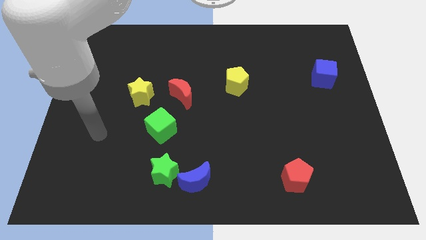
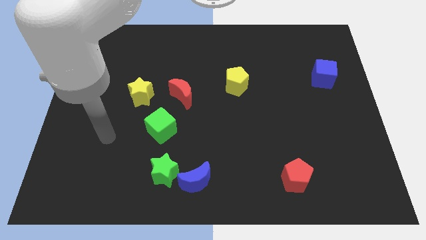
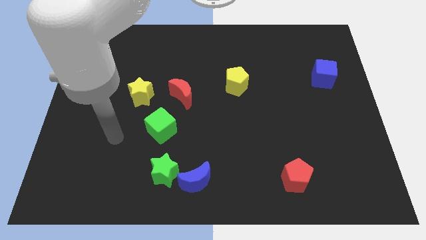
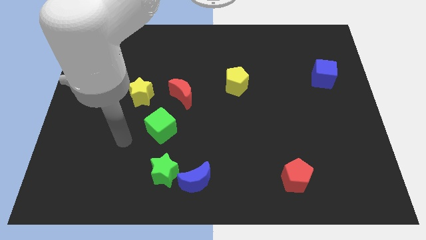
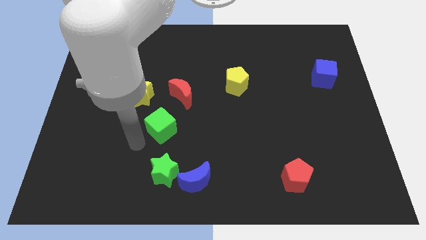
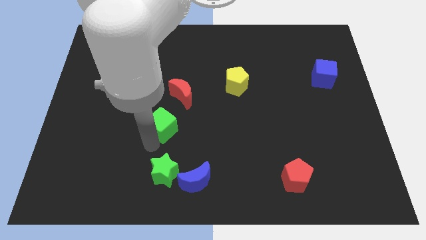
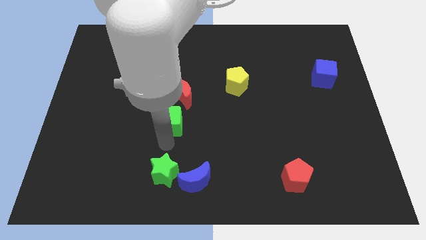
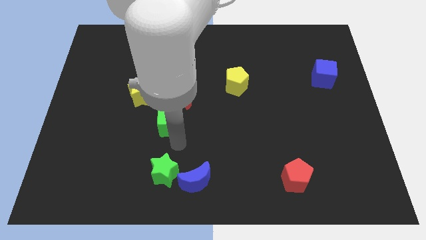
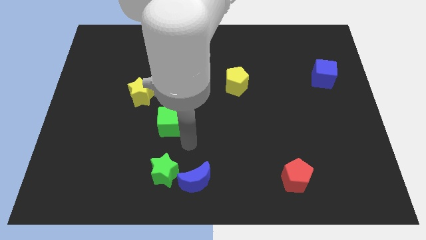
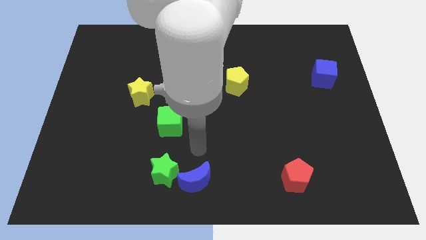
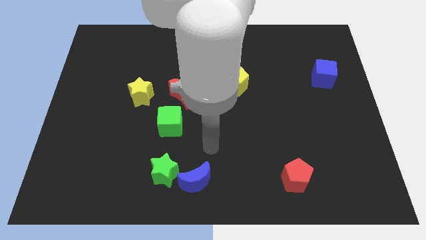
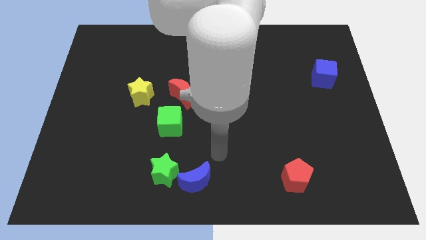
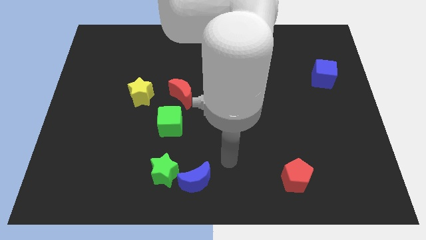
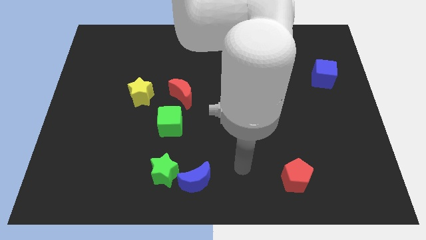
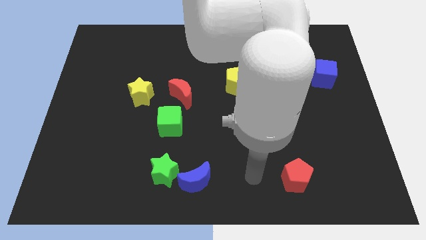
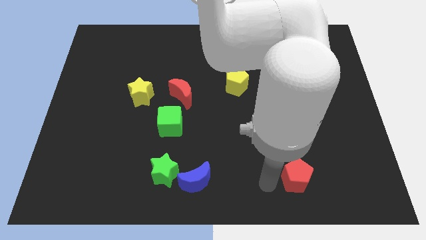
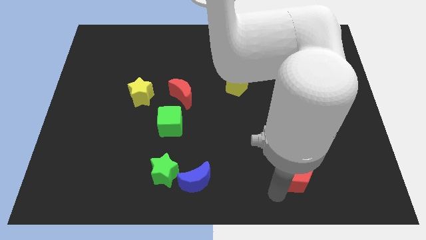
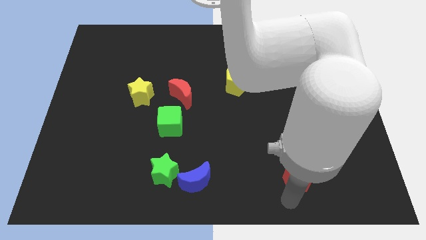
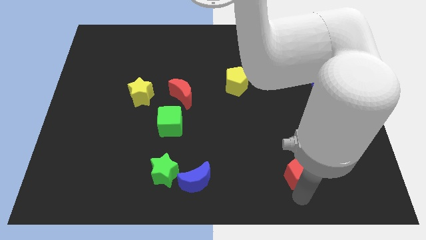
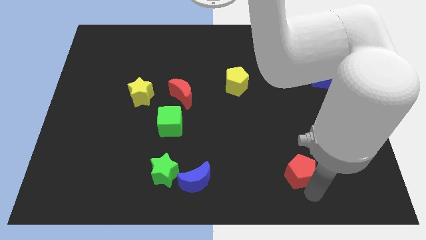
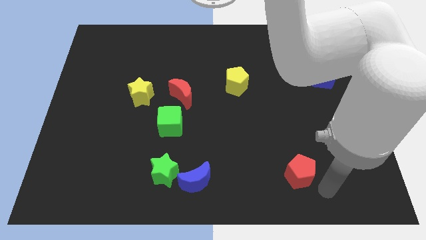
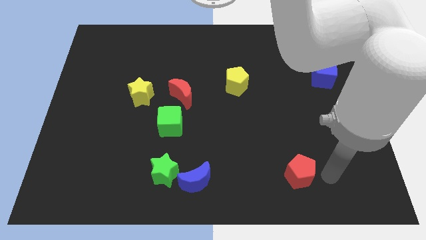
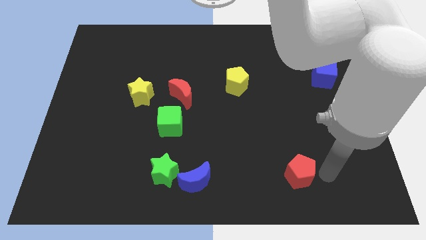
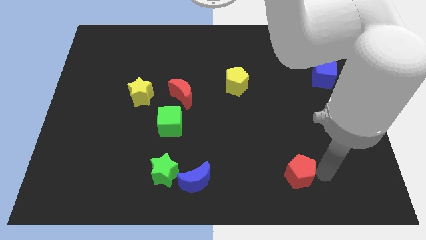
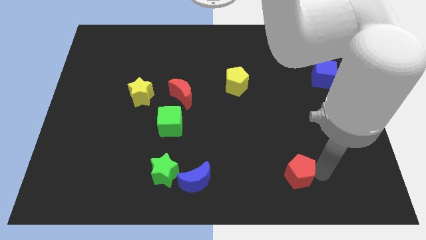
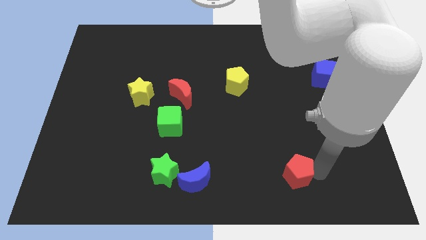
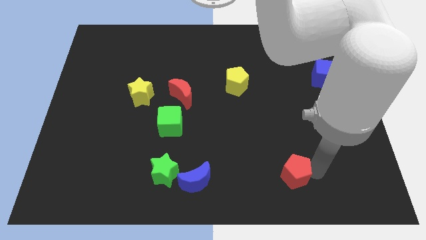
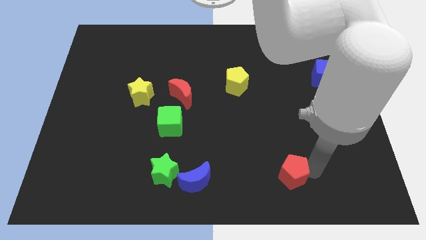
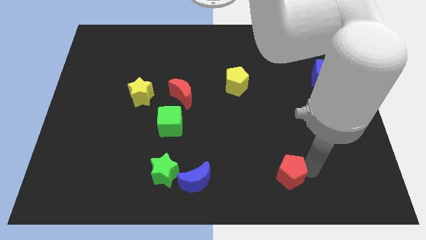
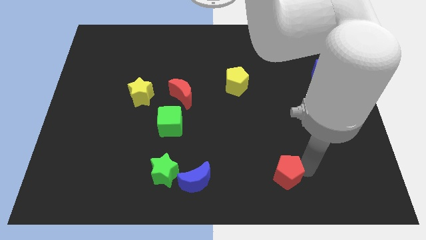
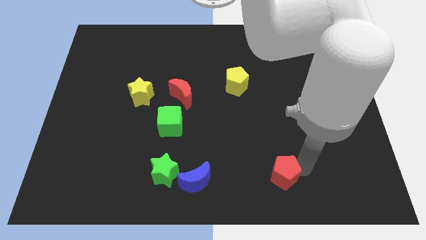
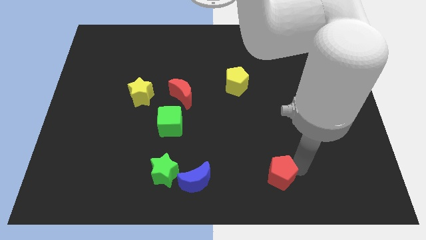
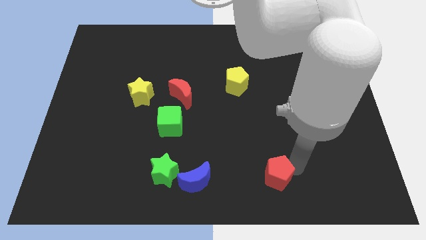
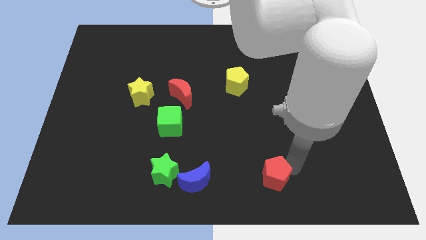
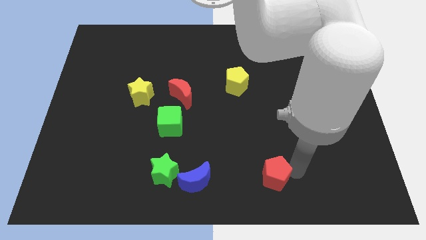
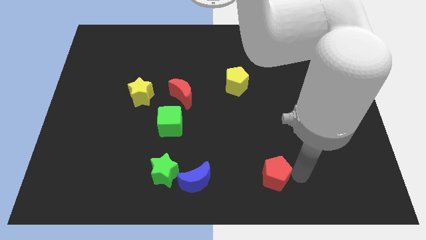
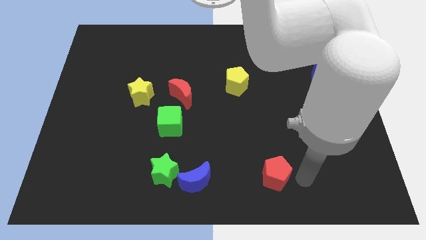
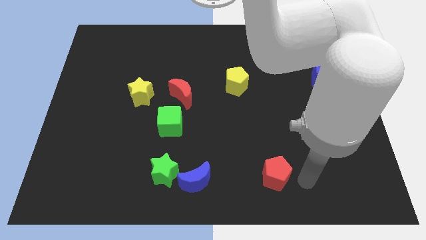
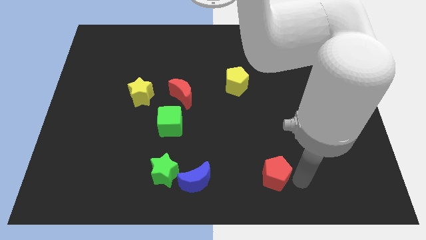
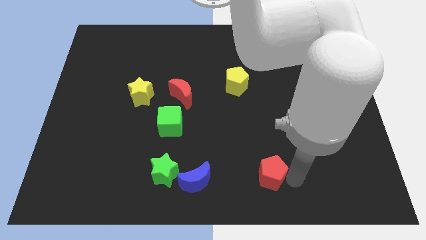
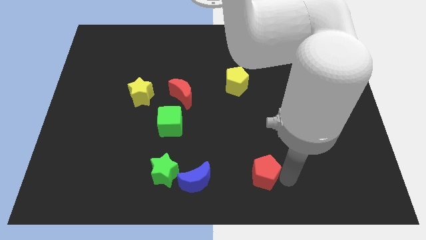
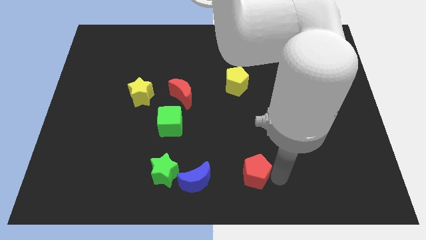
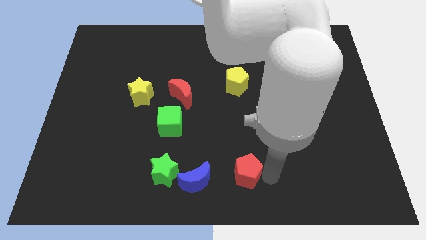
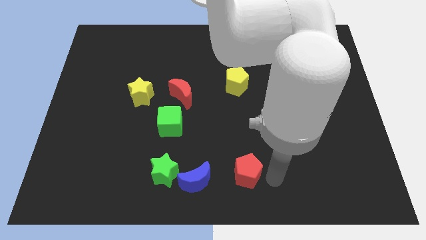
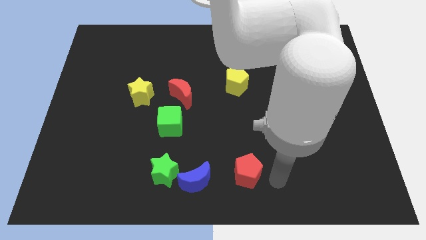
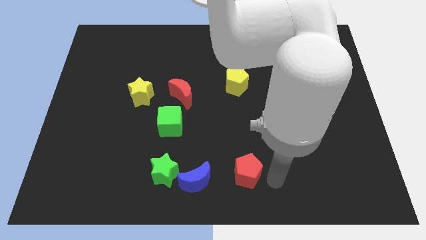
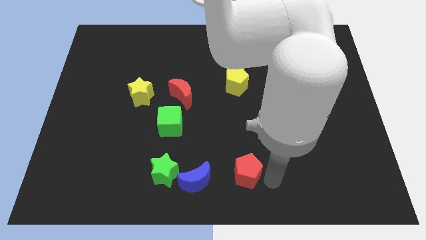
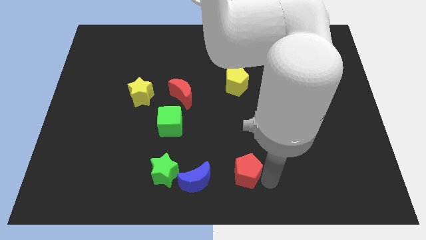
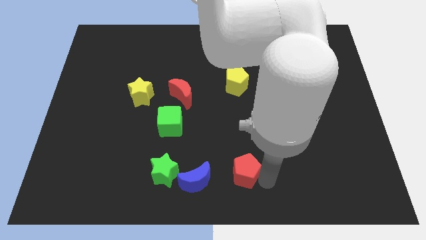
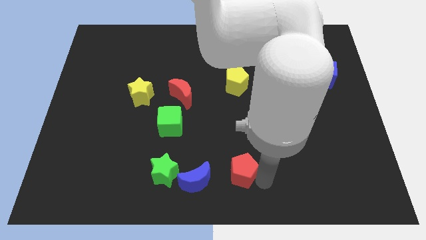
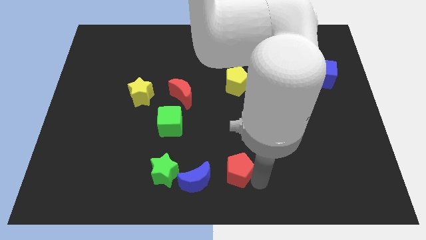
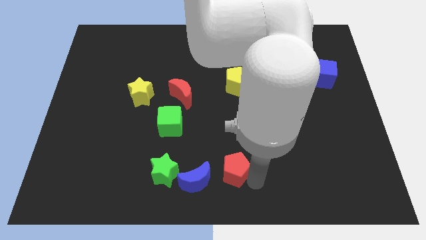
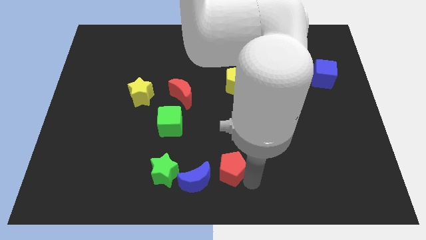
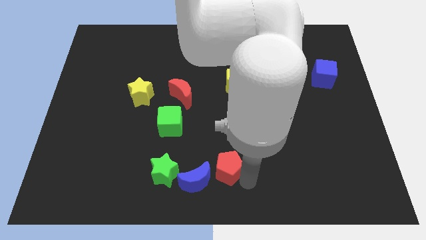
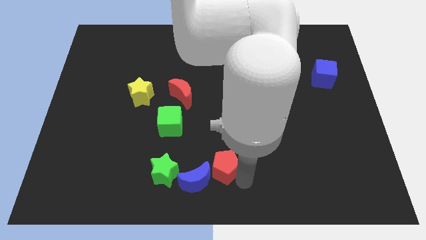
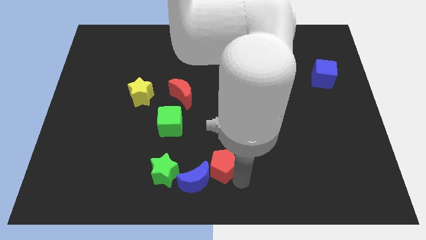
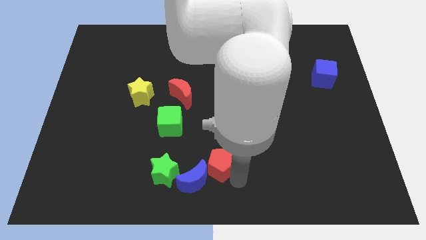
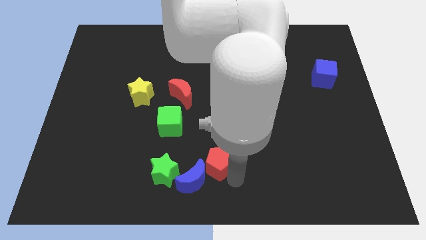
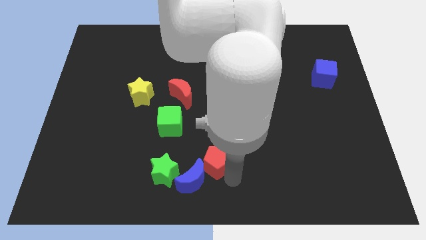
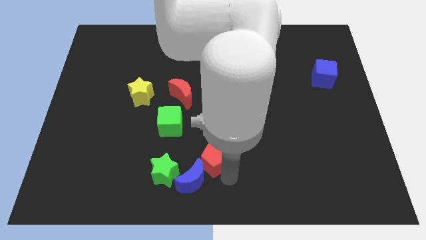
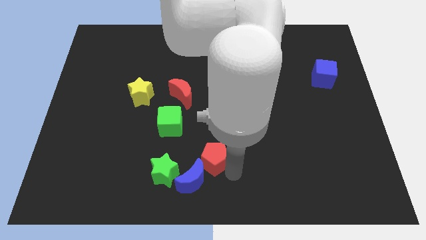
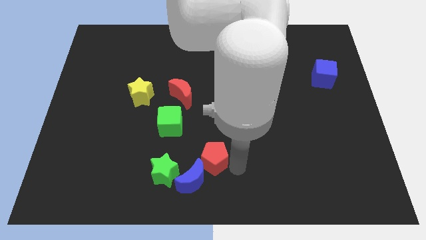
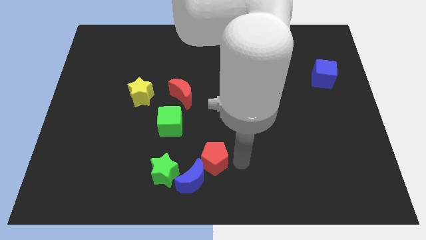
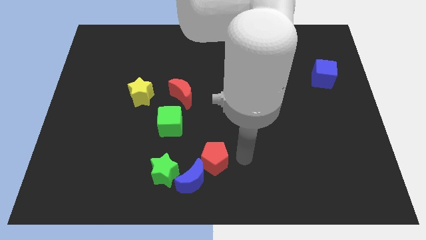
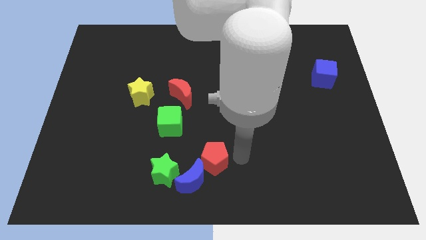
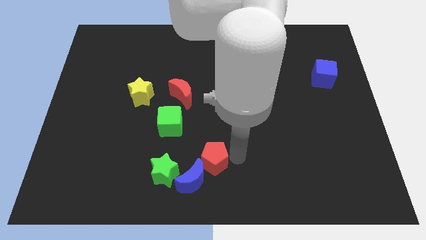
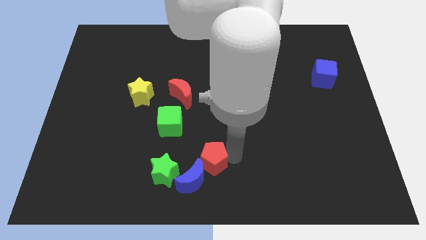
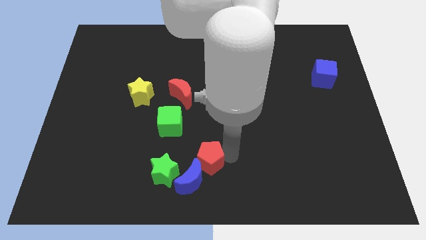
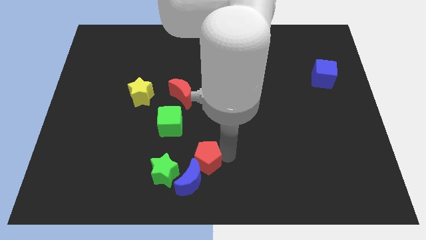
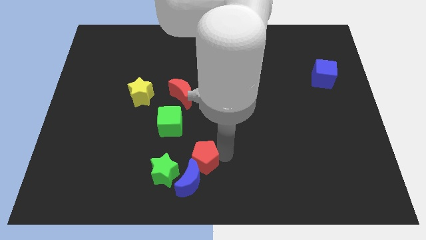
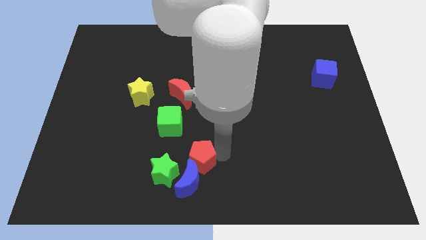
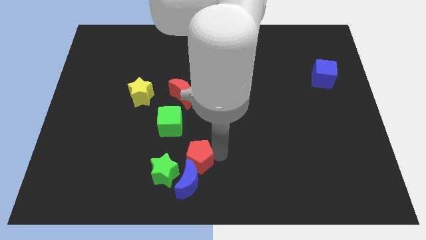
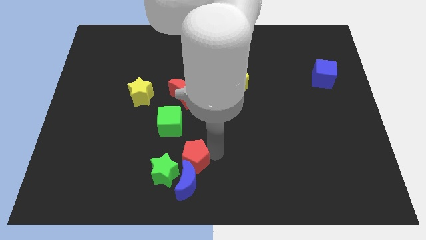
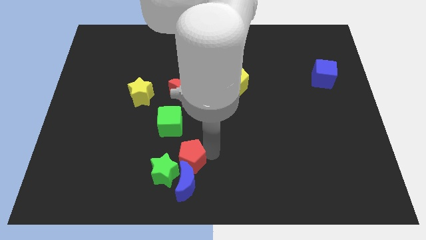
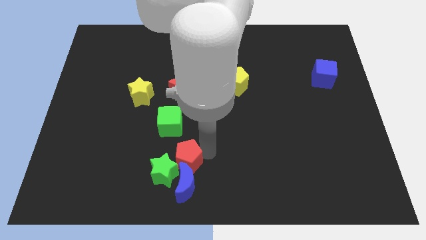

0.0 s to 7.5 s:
push the red pentagon next to the green star
